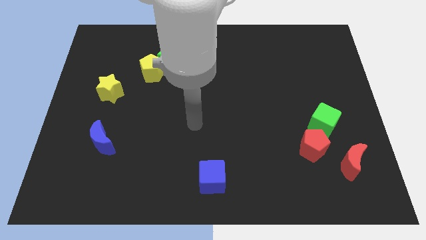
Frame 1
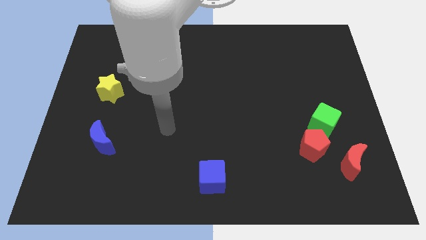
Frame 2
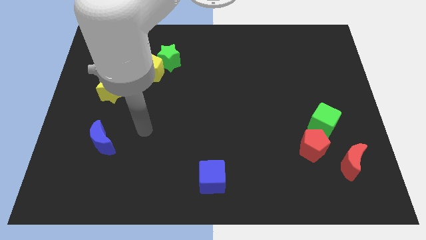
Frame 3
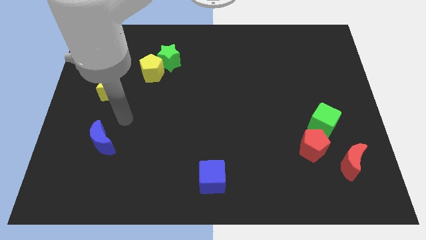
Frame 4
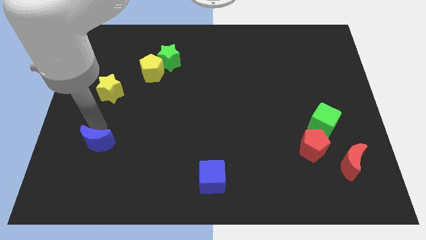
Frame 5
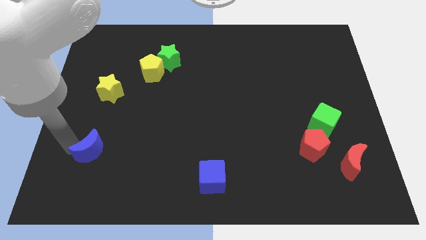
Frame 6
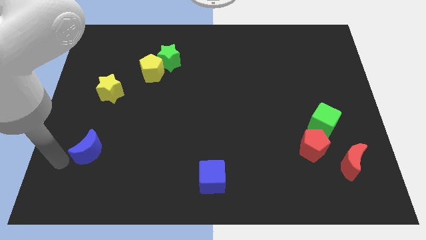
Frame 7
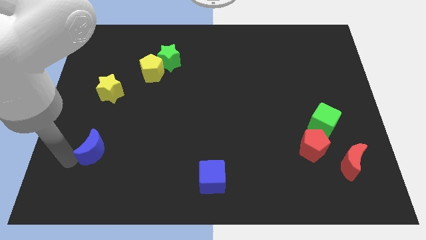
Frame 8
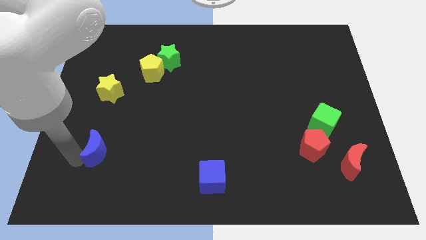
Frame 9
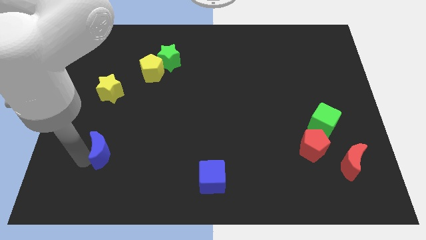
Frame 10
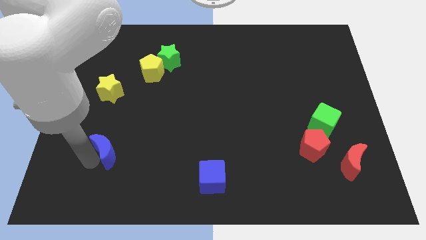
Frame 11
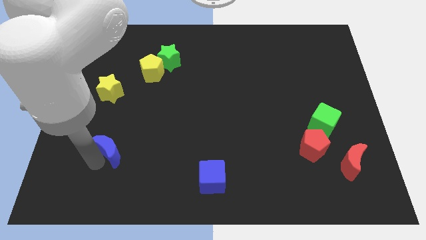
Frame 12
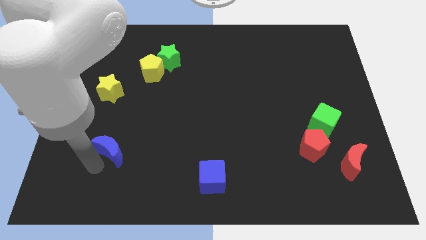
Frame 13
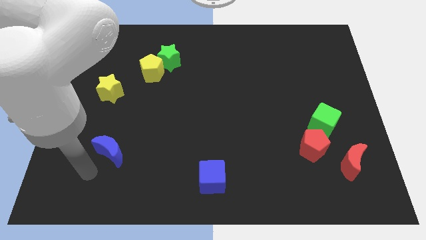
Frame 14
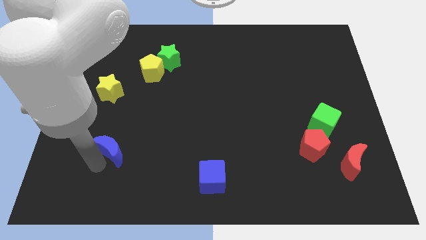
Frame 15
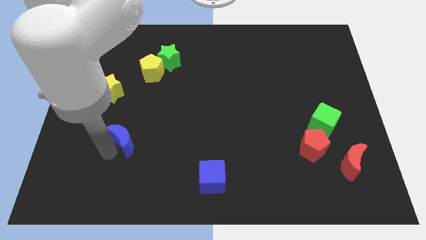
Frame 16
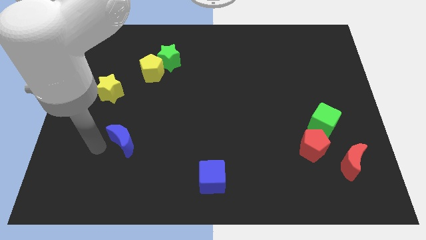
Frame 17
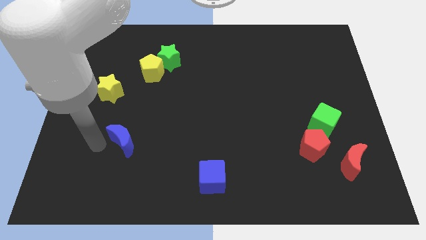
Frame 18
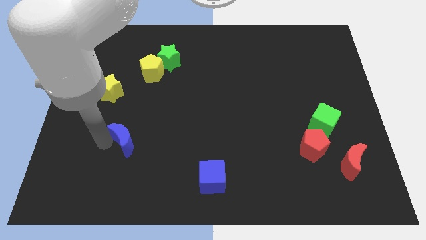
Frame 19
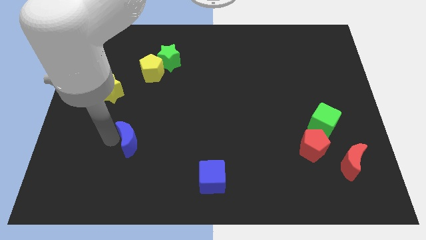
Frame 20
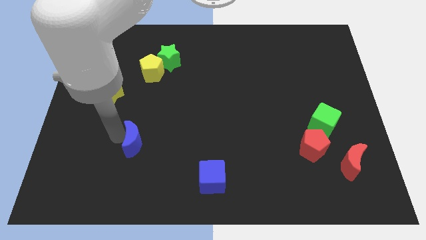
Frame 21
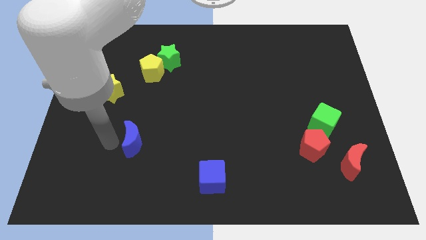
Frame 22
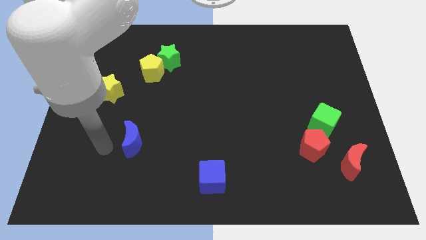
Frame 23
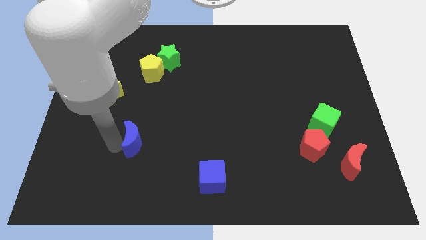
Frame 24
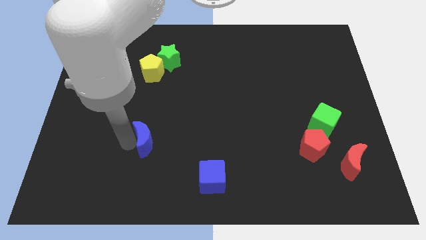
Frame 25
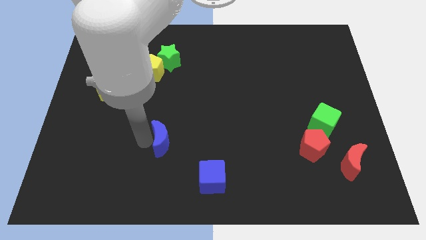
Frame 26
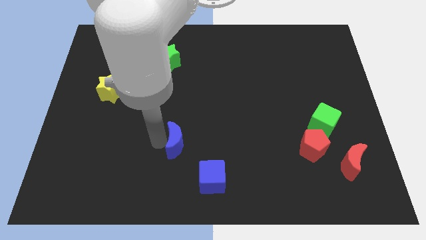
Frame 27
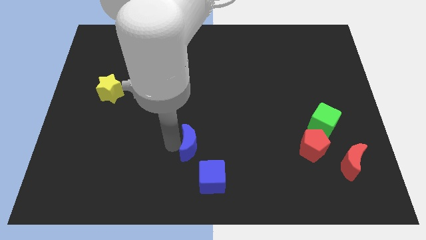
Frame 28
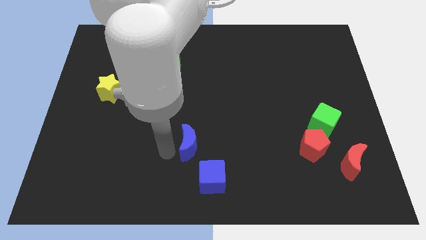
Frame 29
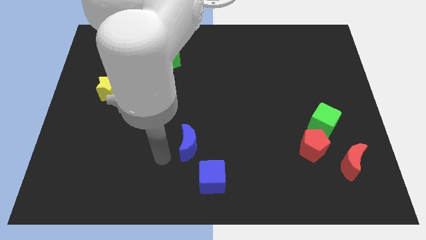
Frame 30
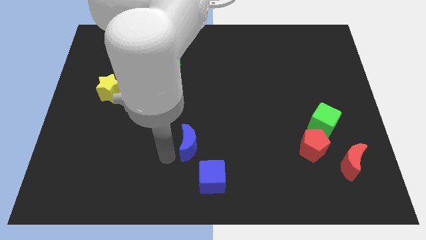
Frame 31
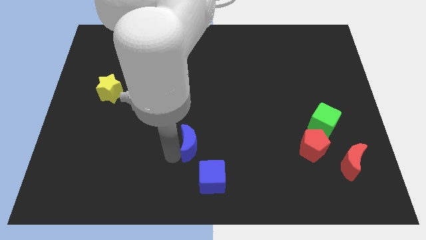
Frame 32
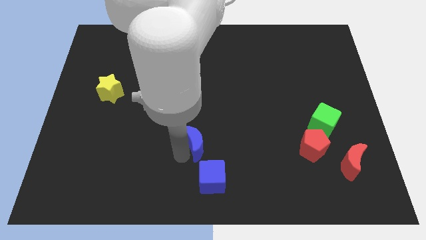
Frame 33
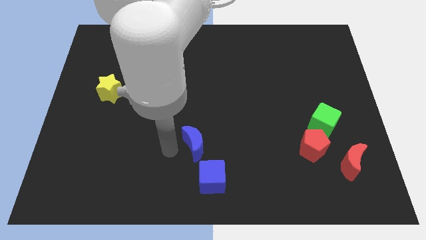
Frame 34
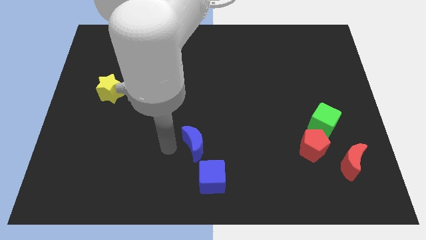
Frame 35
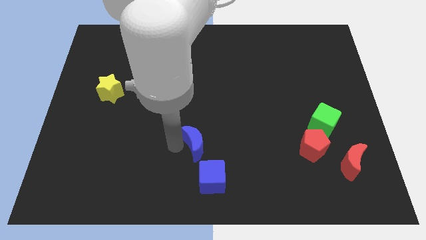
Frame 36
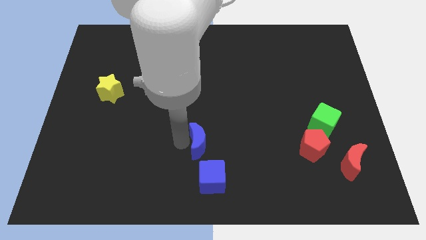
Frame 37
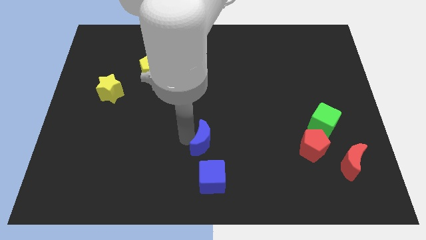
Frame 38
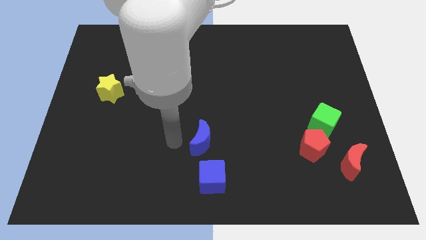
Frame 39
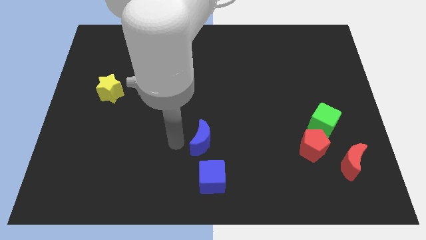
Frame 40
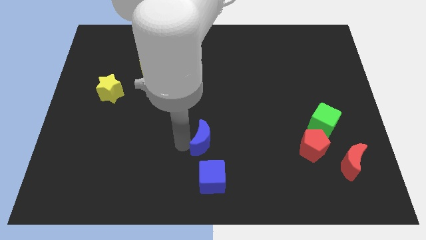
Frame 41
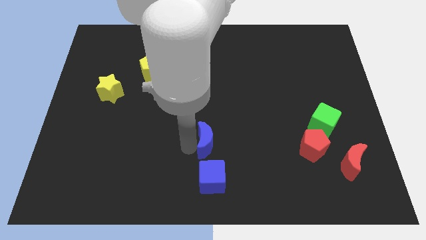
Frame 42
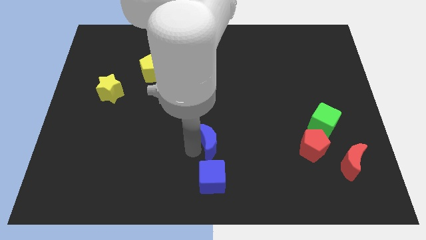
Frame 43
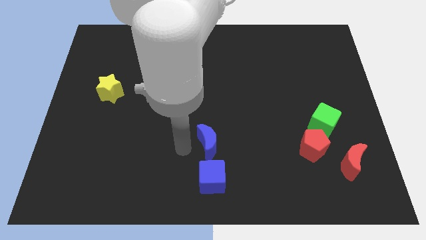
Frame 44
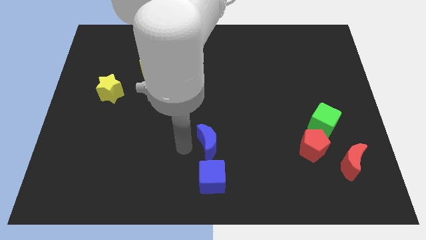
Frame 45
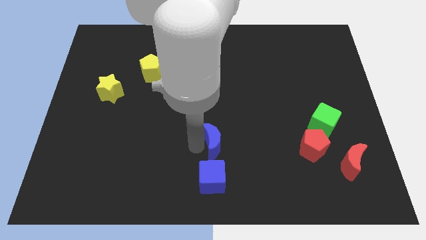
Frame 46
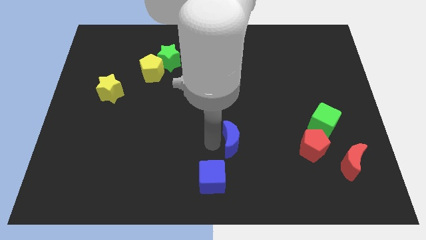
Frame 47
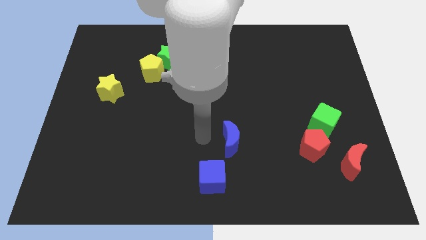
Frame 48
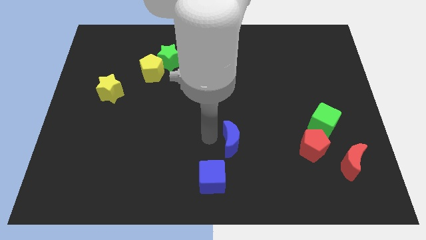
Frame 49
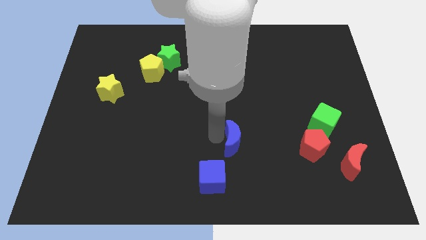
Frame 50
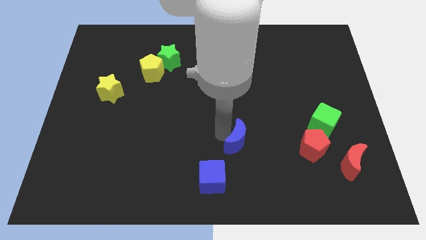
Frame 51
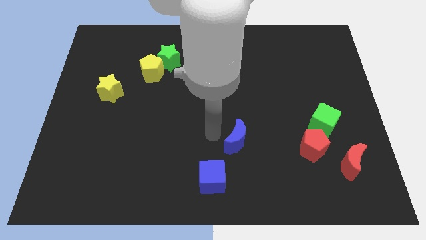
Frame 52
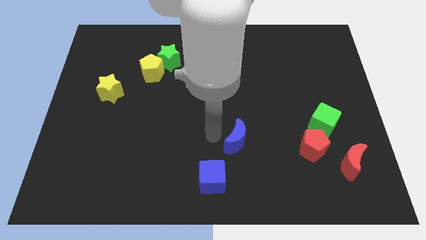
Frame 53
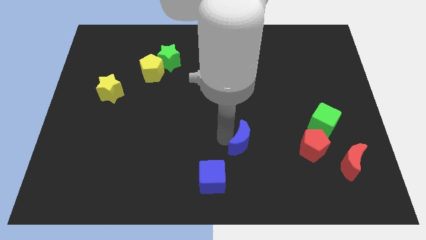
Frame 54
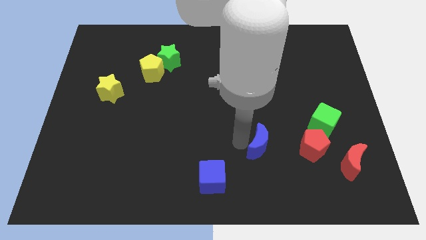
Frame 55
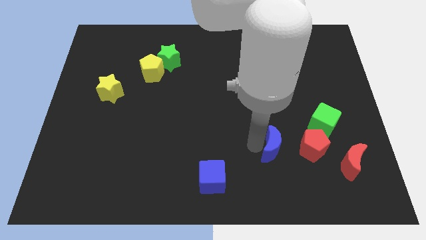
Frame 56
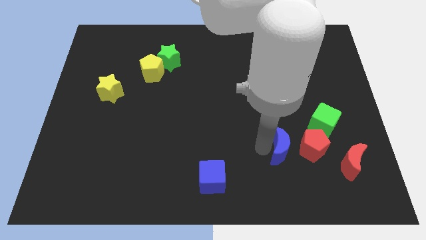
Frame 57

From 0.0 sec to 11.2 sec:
move the blue moon to the bottom left of the green cube

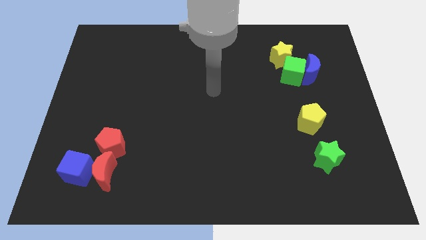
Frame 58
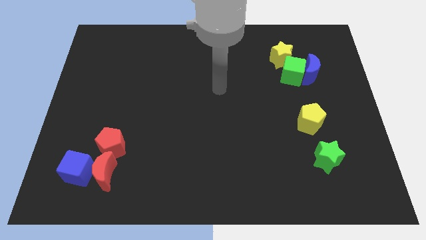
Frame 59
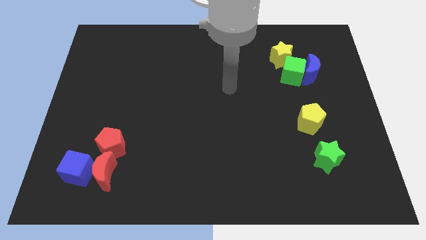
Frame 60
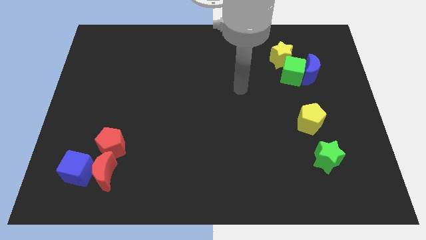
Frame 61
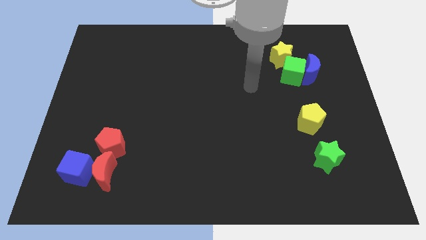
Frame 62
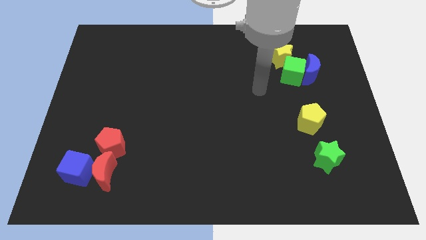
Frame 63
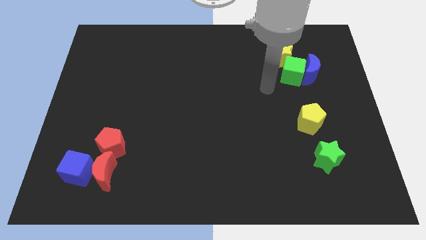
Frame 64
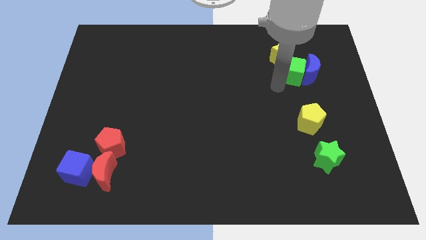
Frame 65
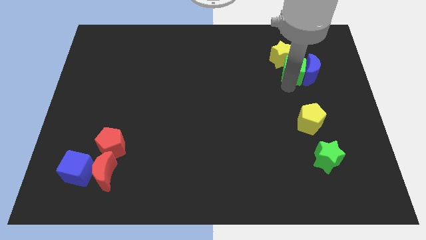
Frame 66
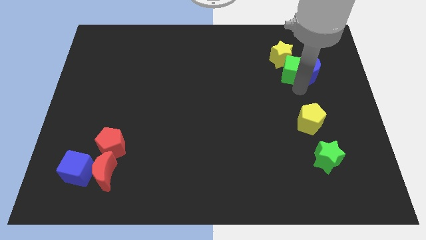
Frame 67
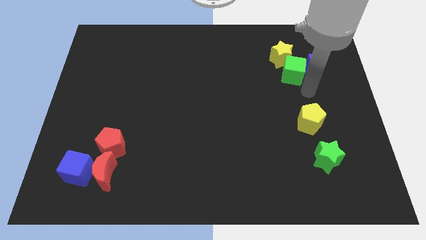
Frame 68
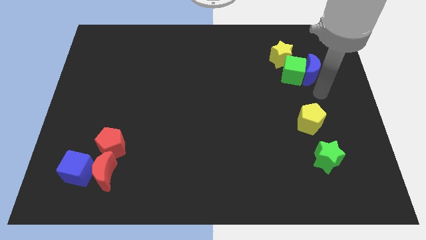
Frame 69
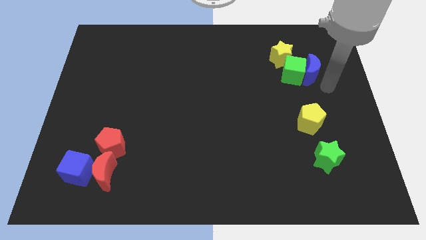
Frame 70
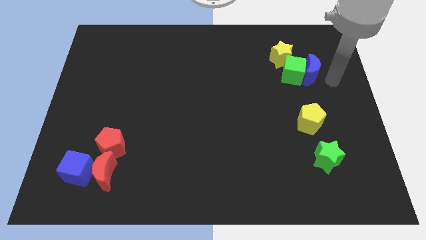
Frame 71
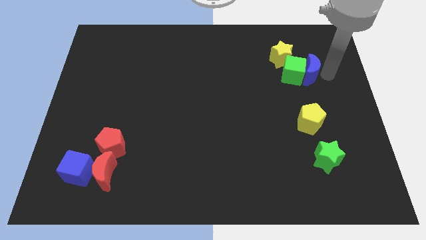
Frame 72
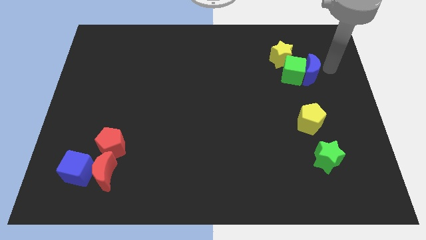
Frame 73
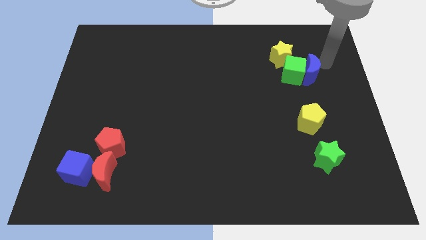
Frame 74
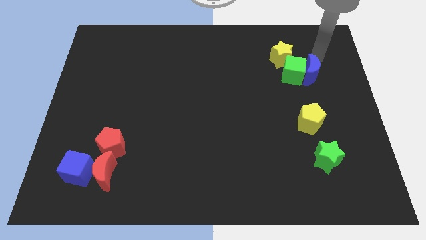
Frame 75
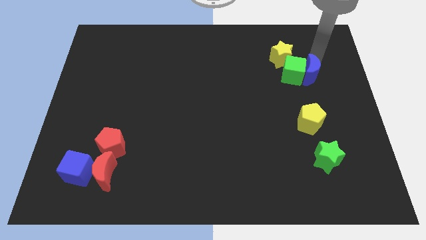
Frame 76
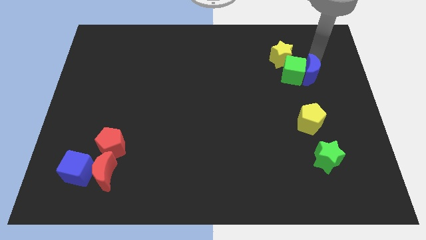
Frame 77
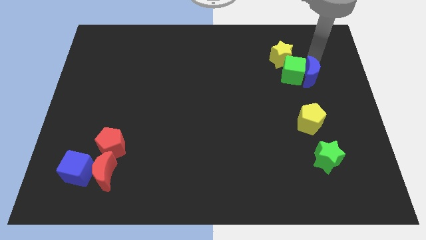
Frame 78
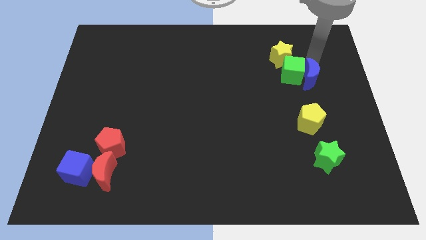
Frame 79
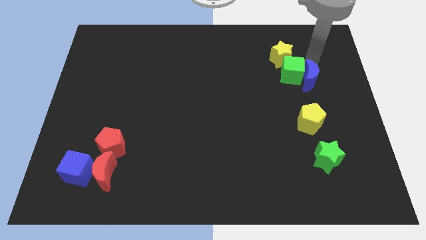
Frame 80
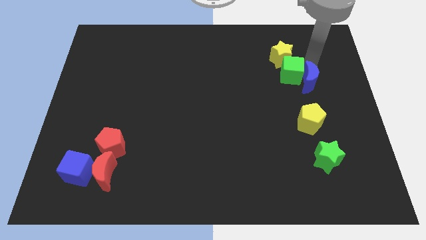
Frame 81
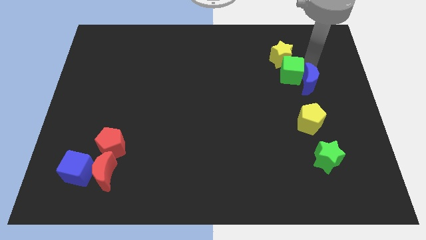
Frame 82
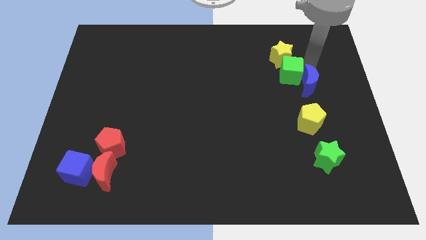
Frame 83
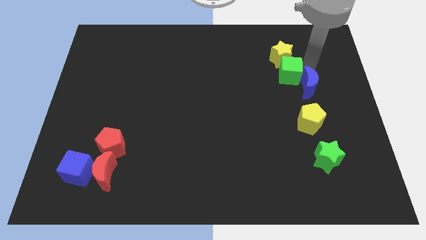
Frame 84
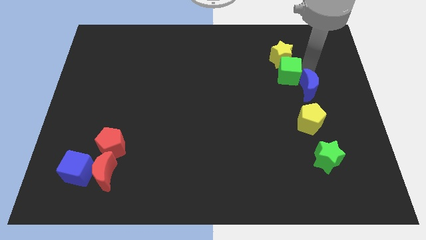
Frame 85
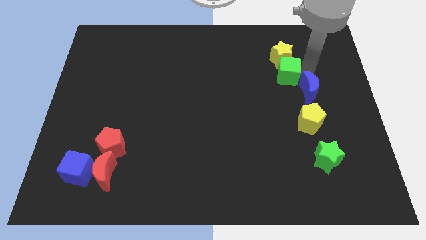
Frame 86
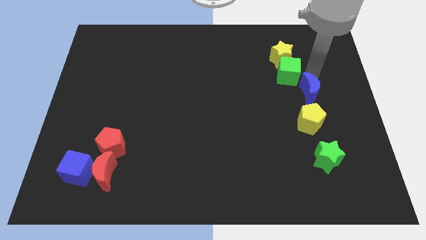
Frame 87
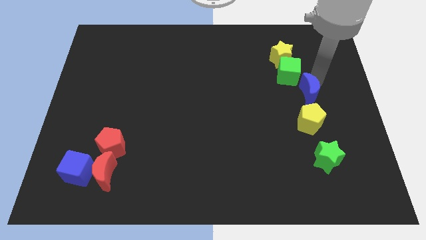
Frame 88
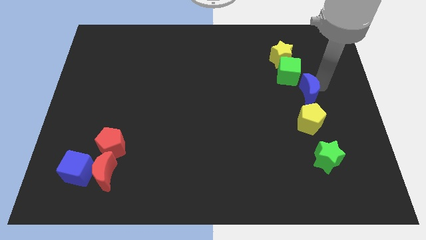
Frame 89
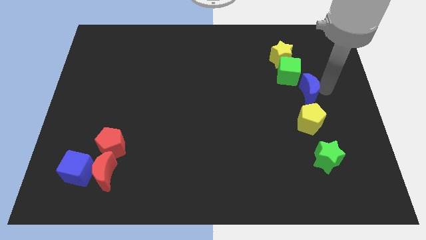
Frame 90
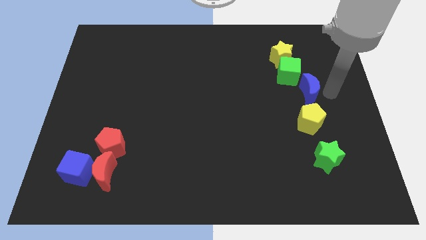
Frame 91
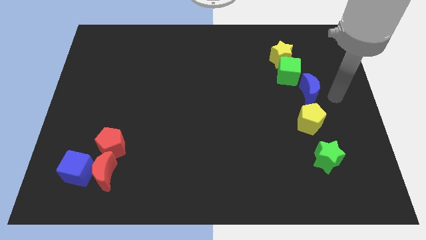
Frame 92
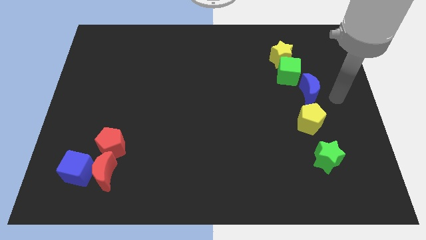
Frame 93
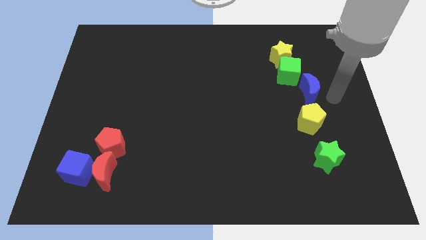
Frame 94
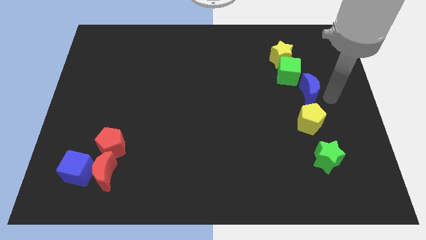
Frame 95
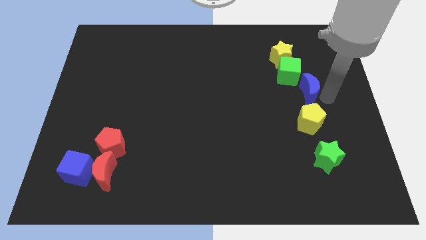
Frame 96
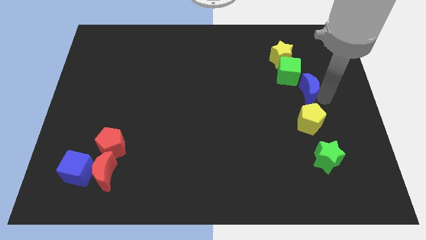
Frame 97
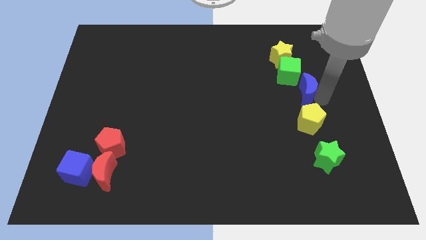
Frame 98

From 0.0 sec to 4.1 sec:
push the blue moon to the bottom side of the yellow star
